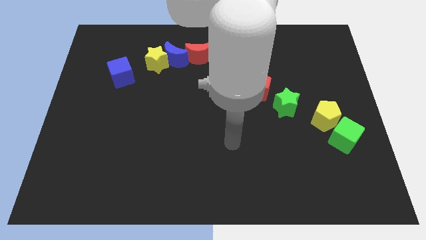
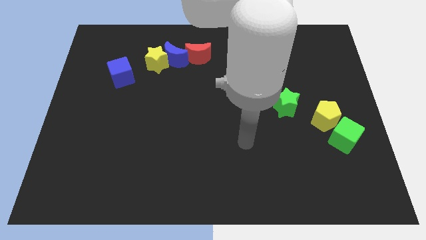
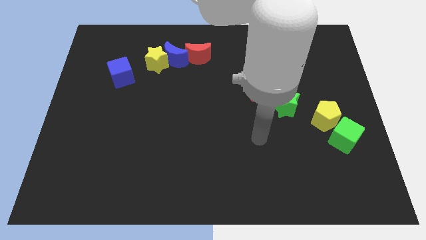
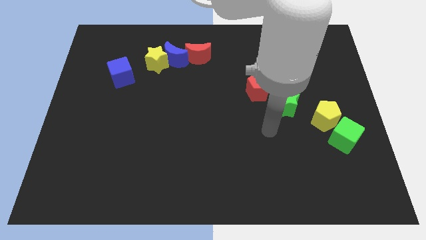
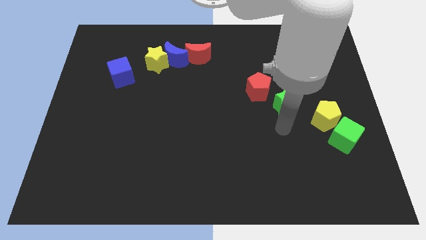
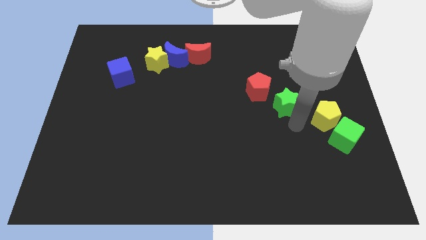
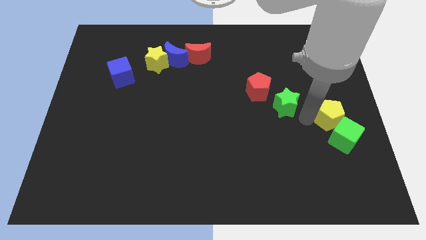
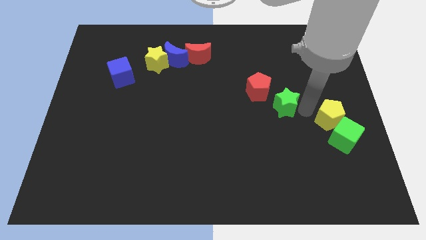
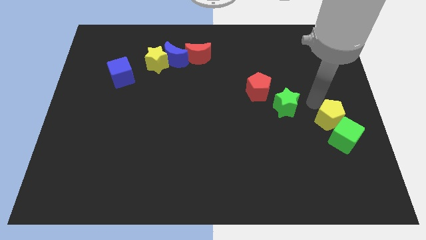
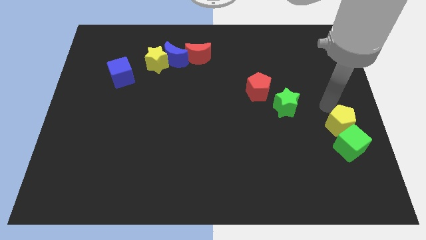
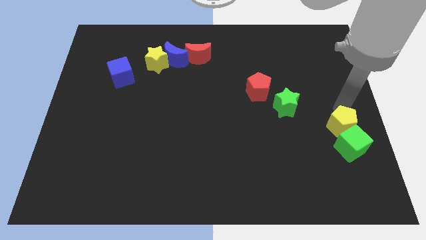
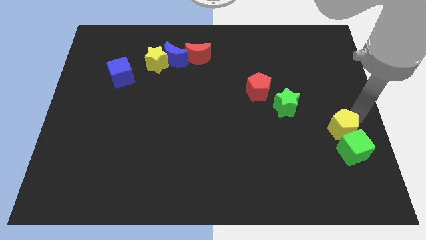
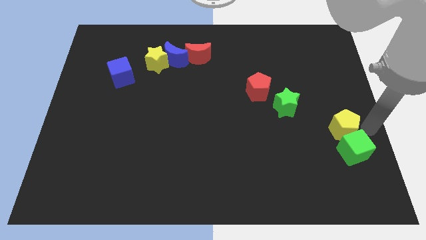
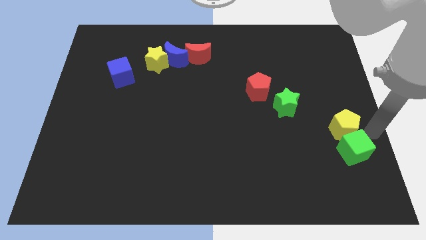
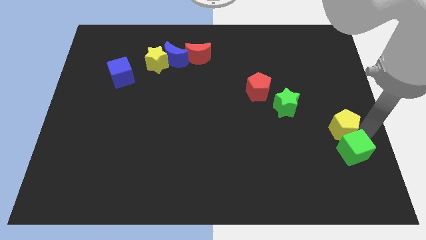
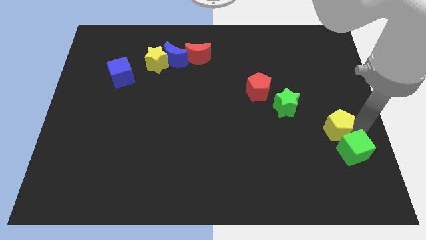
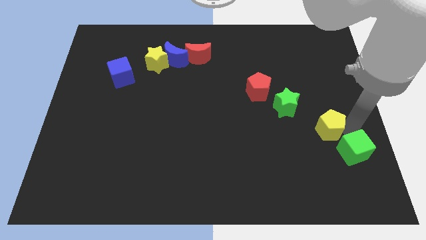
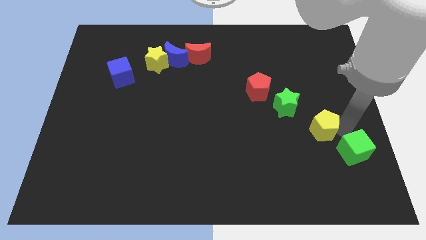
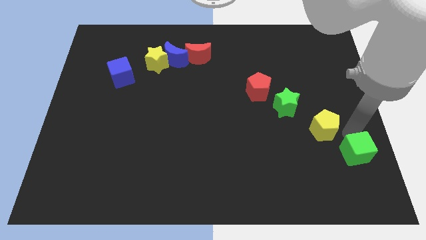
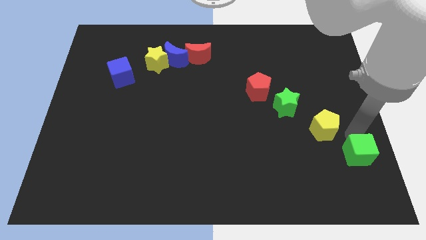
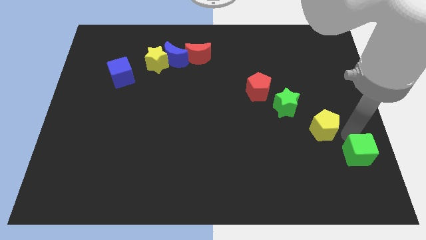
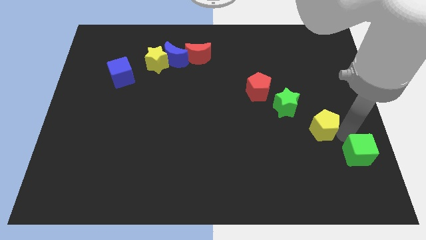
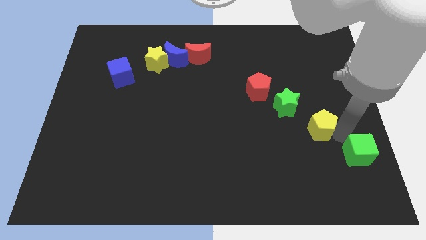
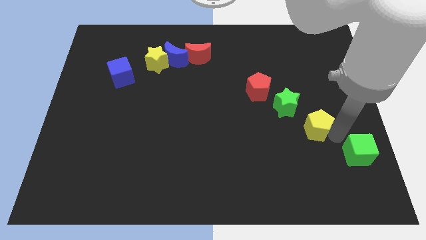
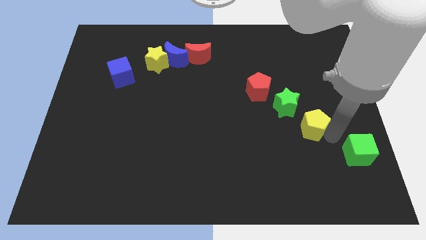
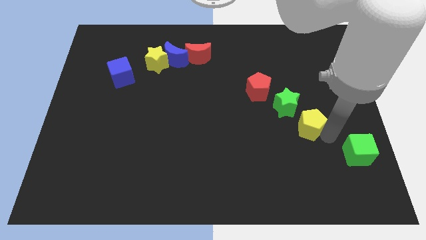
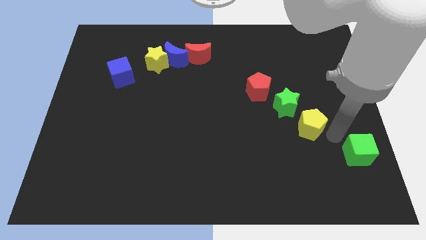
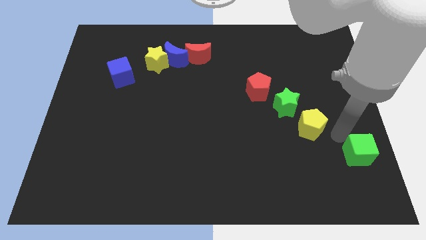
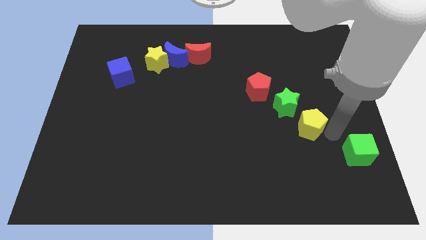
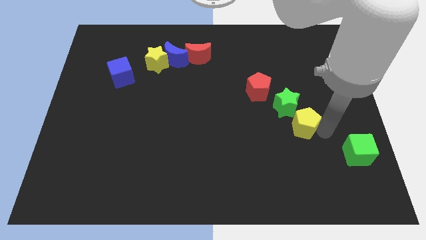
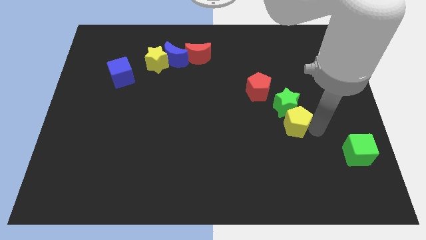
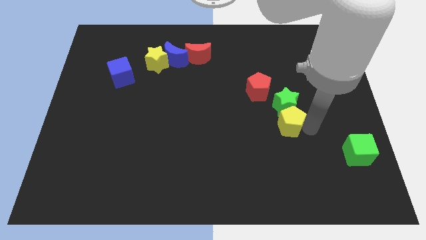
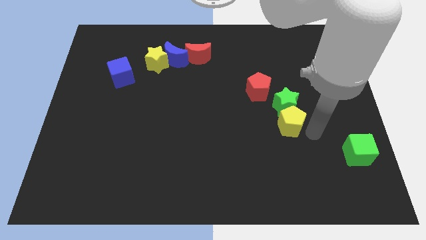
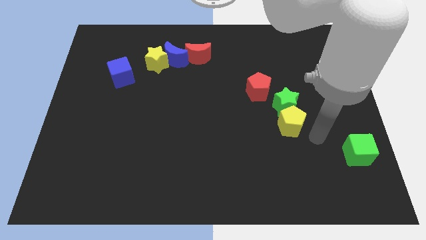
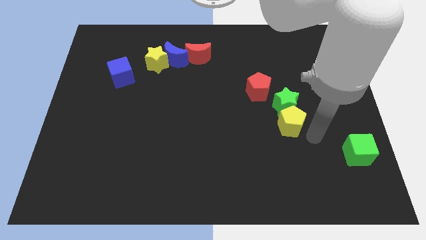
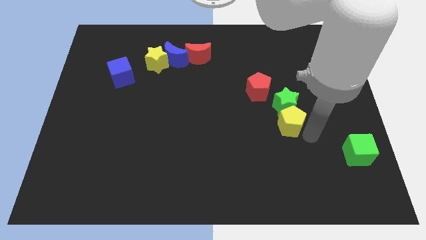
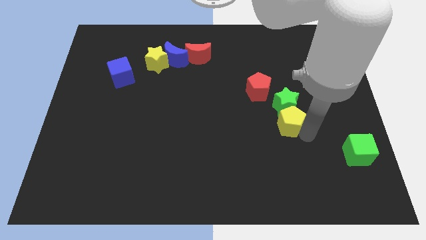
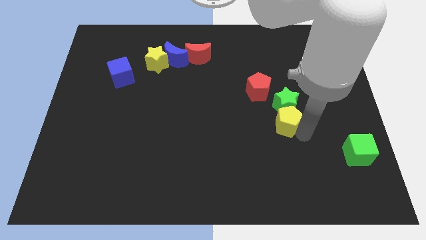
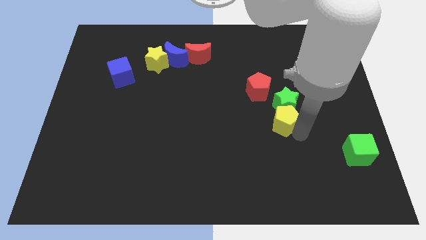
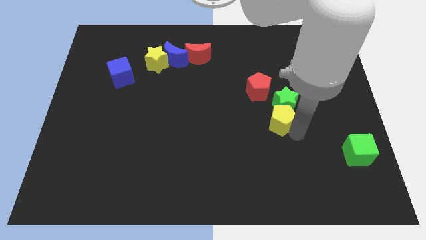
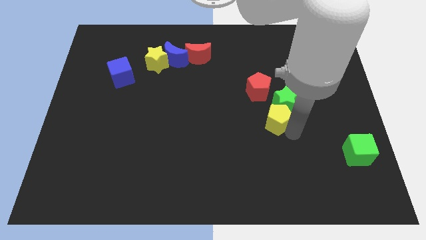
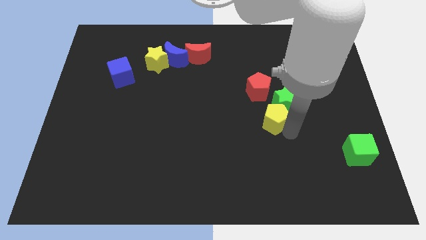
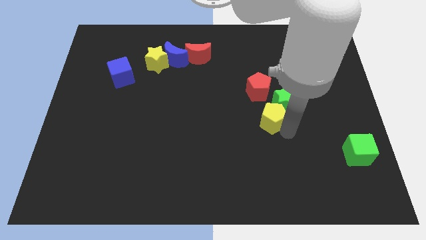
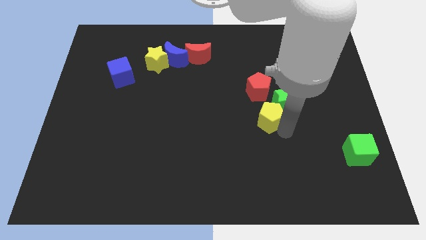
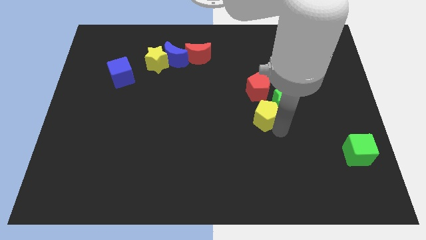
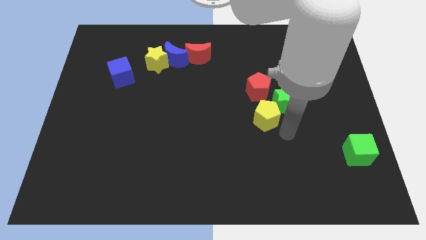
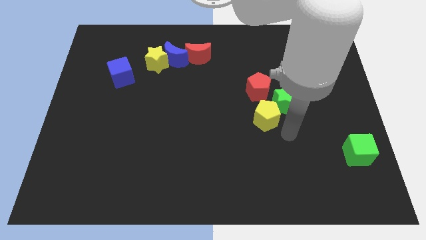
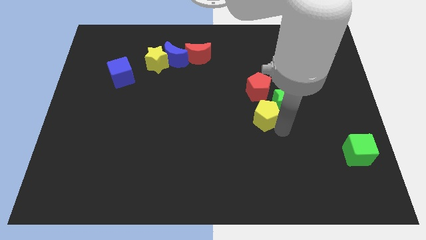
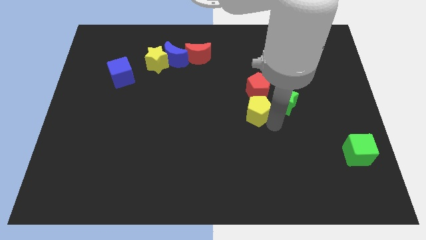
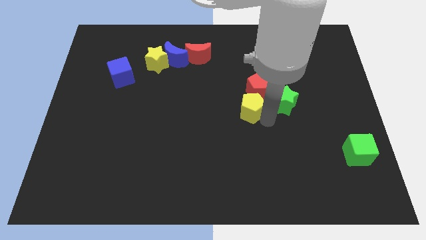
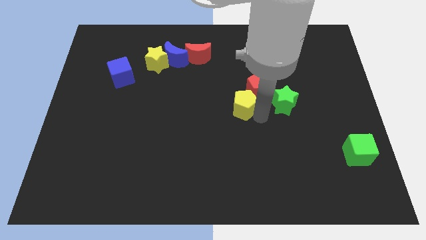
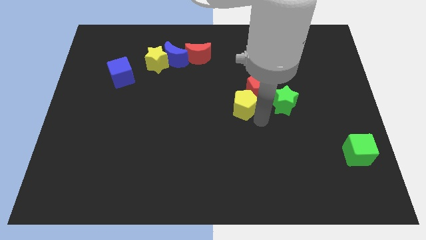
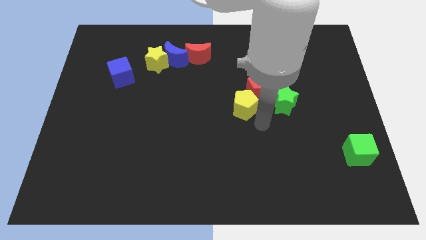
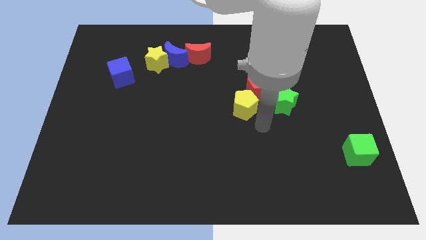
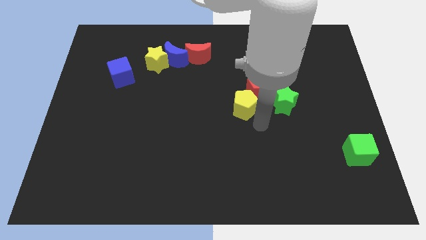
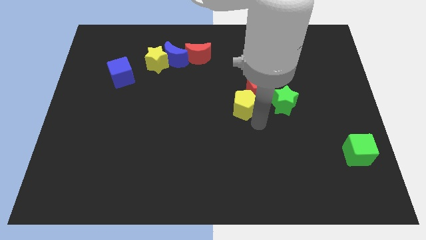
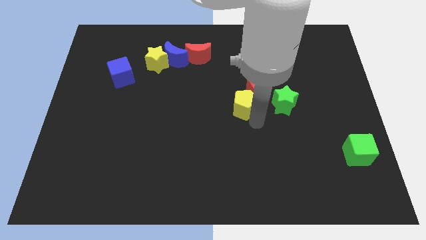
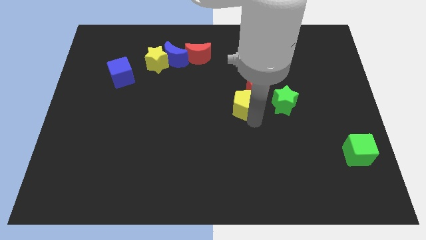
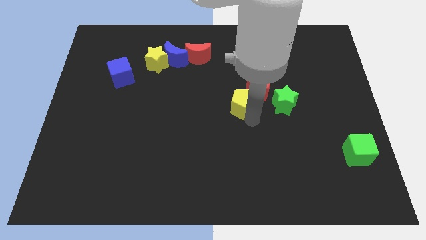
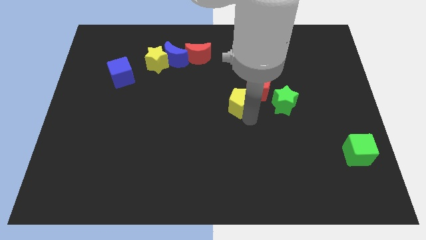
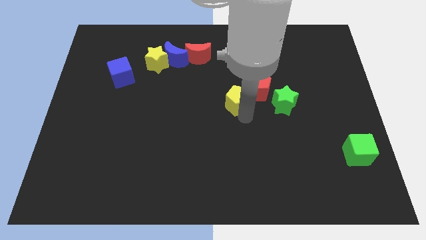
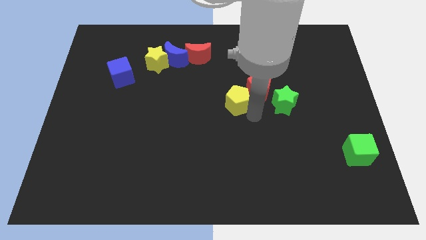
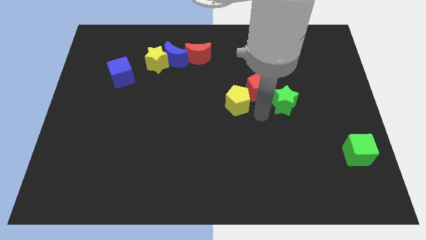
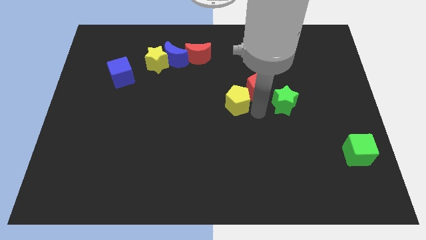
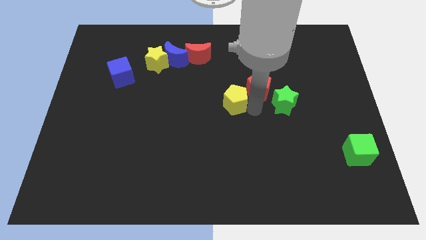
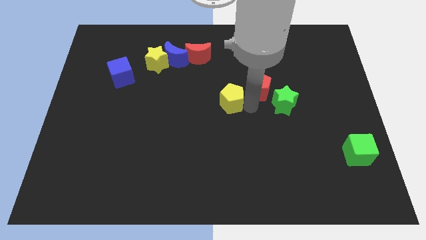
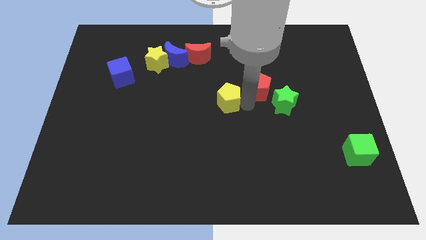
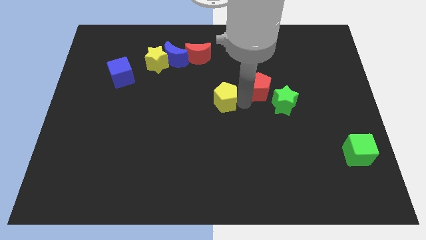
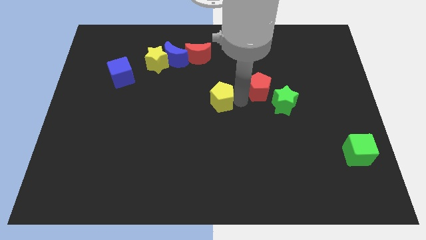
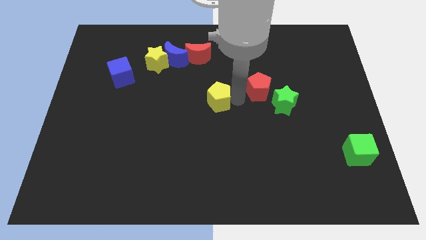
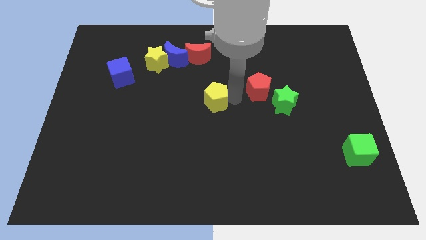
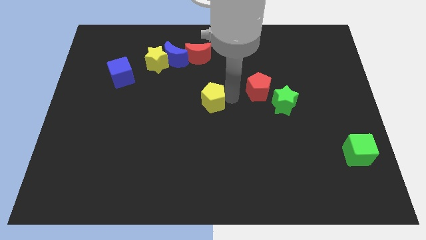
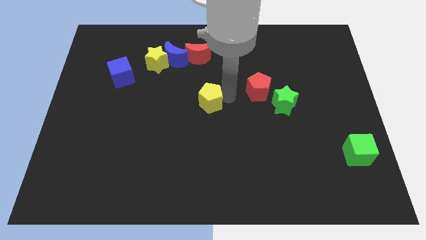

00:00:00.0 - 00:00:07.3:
push the yellow pentagon below the red moon
